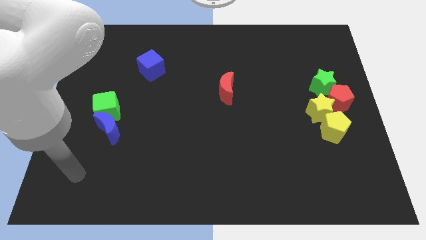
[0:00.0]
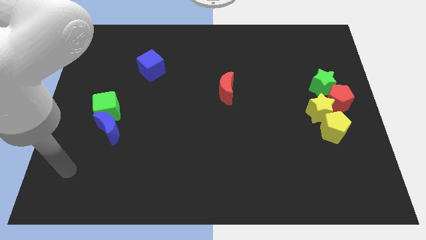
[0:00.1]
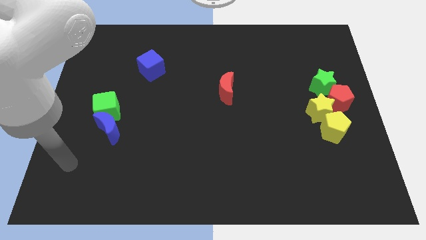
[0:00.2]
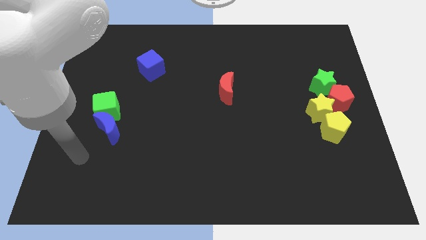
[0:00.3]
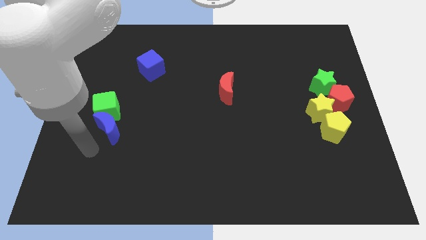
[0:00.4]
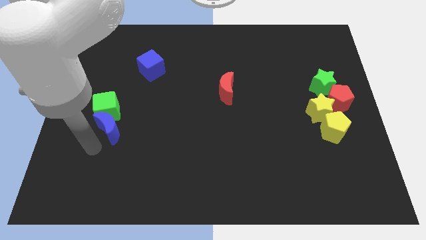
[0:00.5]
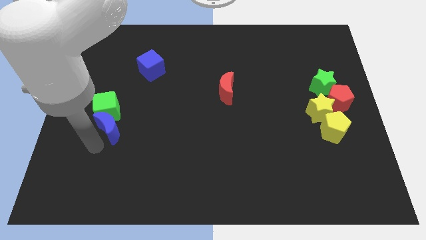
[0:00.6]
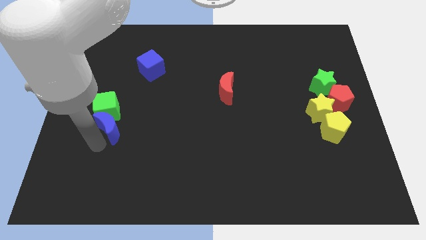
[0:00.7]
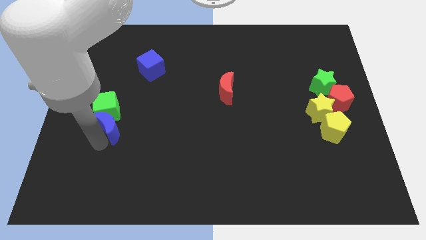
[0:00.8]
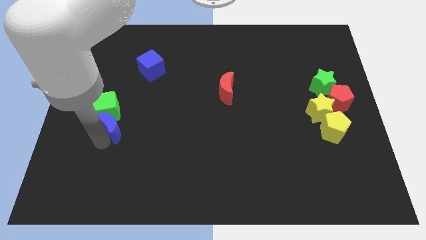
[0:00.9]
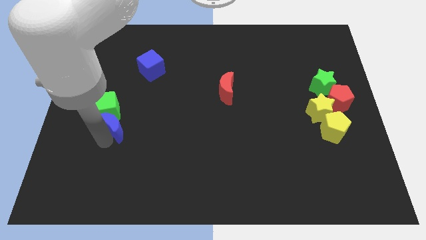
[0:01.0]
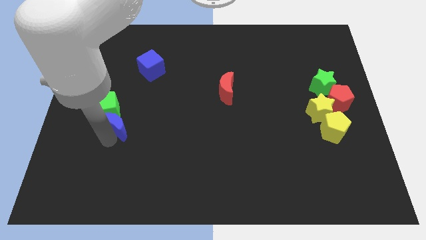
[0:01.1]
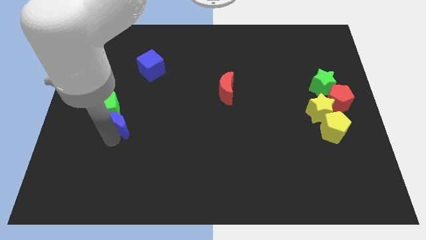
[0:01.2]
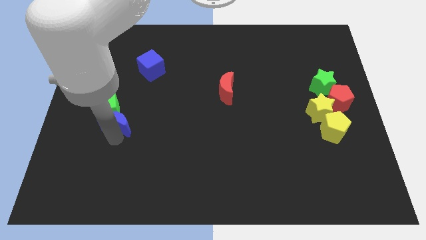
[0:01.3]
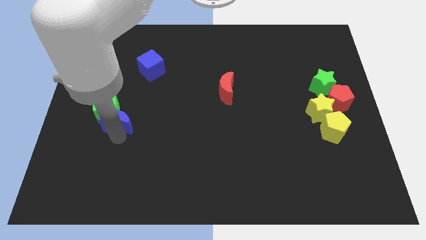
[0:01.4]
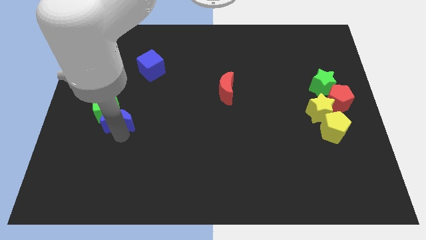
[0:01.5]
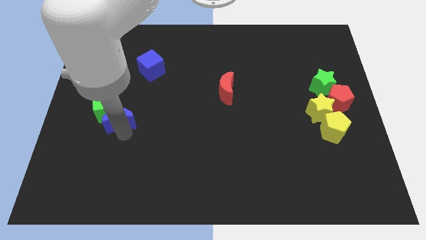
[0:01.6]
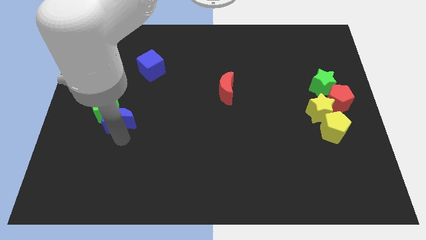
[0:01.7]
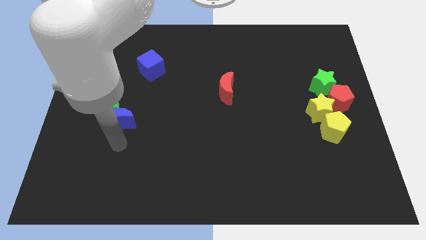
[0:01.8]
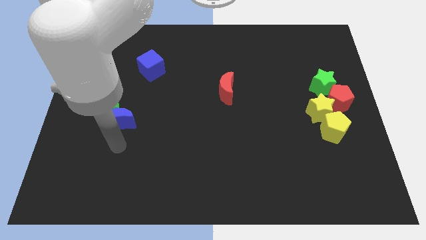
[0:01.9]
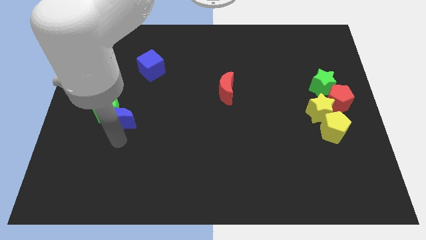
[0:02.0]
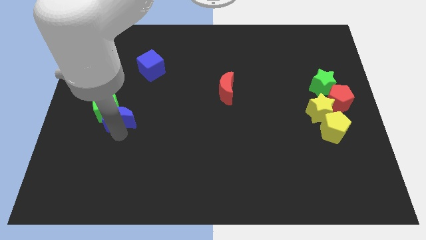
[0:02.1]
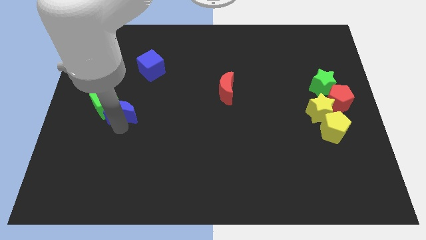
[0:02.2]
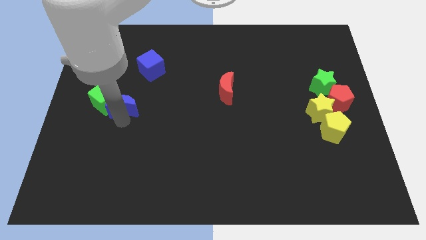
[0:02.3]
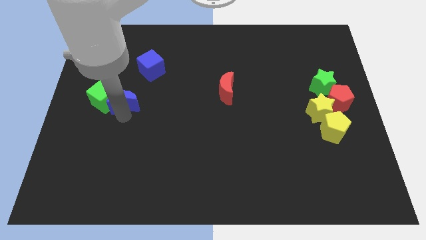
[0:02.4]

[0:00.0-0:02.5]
slide the blue moon up somewhat

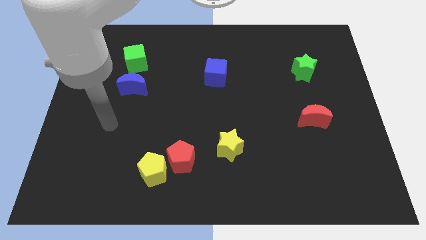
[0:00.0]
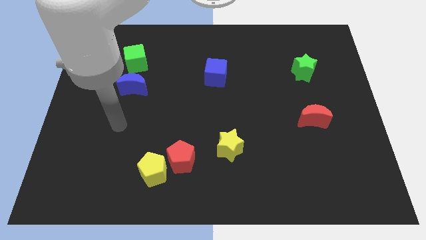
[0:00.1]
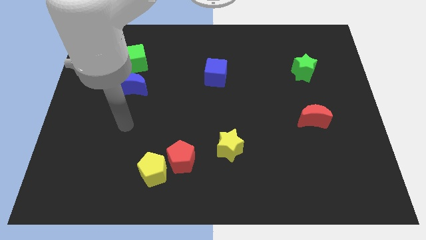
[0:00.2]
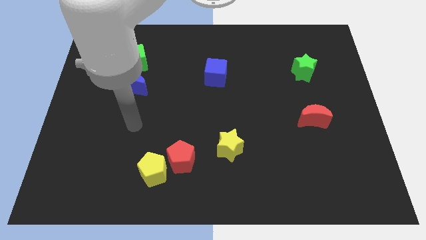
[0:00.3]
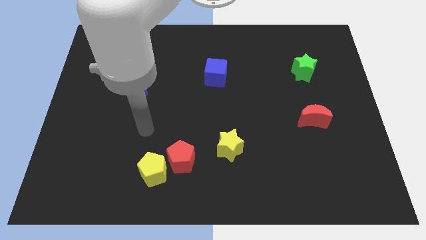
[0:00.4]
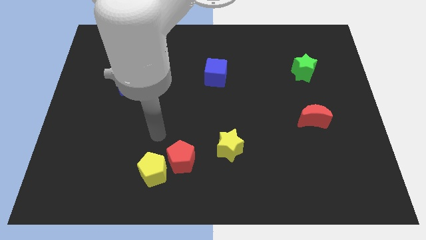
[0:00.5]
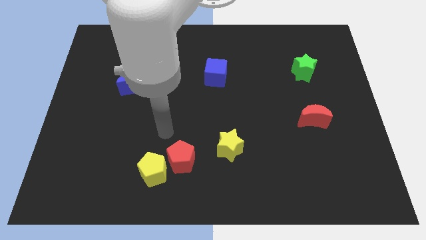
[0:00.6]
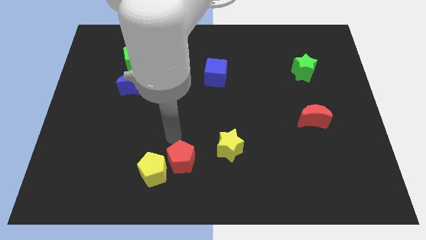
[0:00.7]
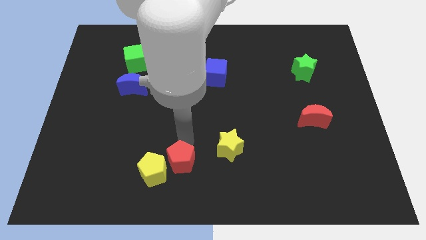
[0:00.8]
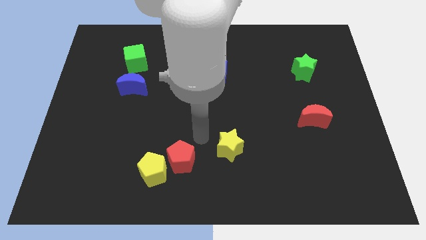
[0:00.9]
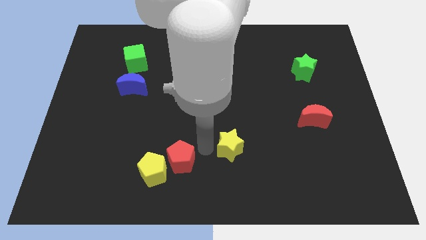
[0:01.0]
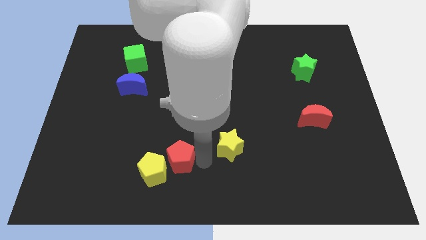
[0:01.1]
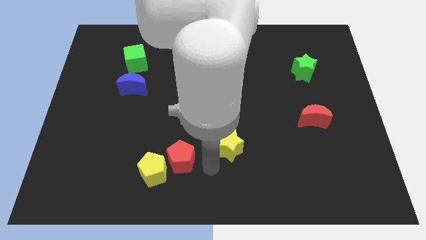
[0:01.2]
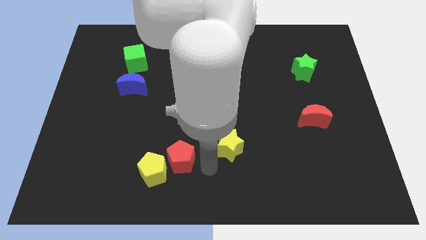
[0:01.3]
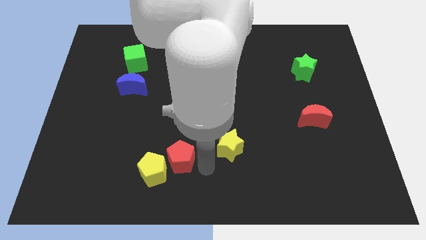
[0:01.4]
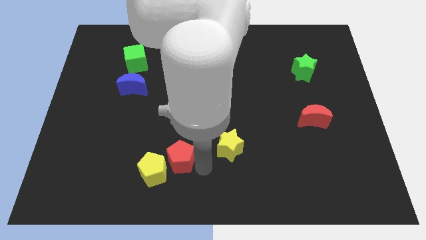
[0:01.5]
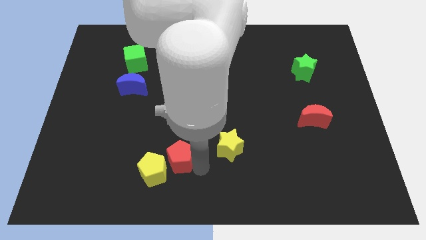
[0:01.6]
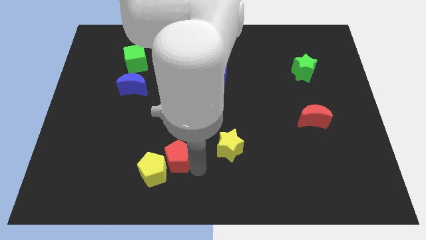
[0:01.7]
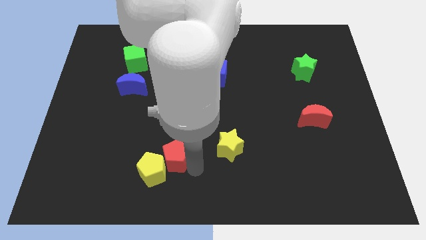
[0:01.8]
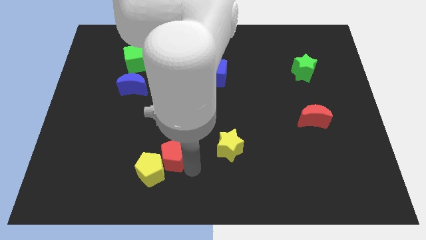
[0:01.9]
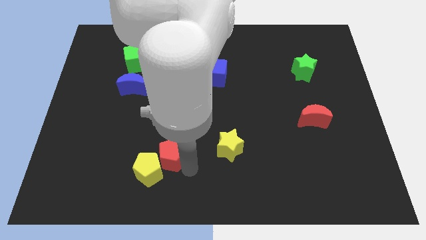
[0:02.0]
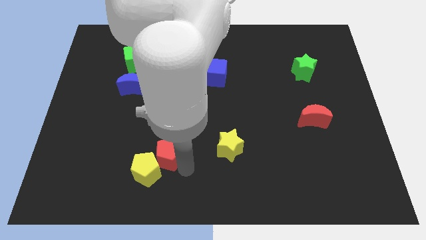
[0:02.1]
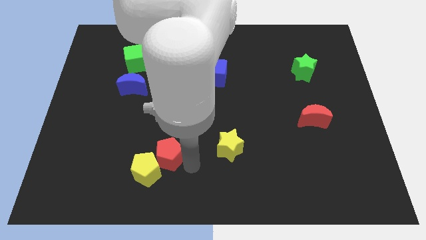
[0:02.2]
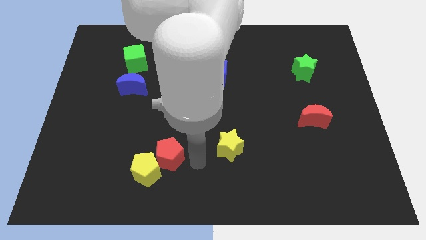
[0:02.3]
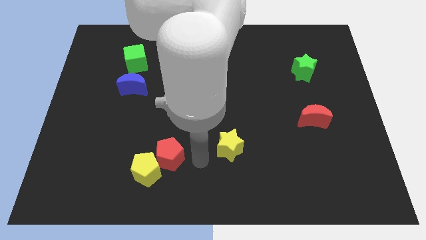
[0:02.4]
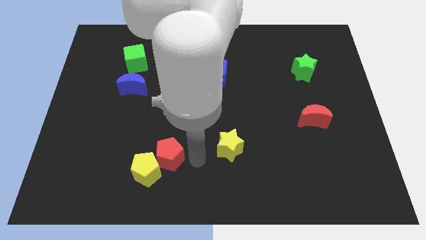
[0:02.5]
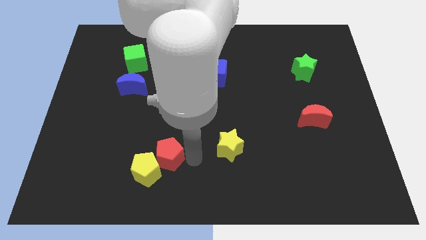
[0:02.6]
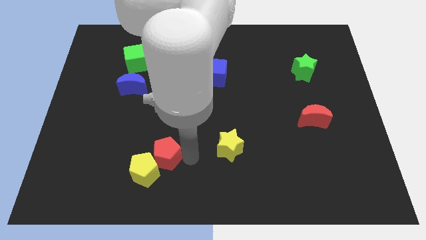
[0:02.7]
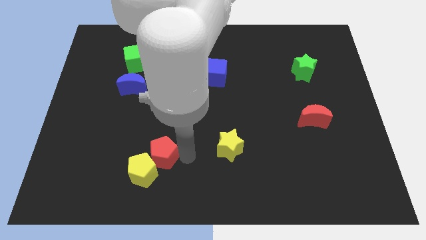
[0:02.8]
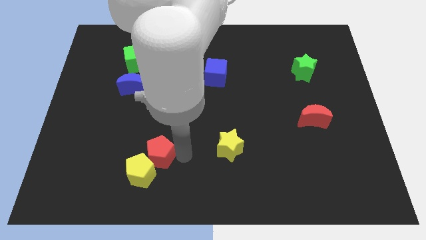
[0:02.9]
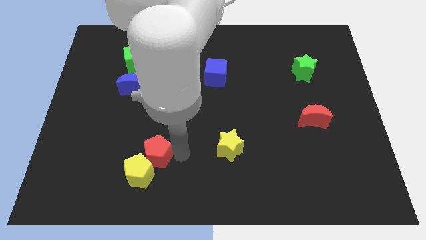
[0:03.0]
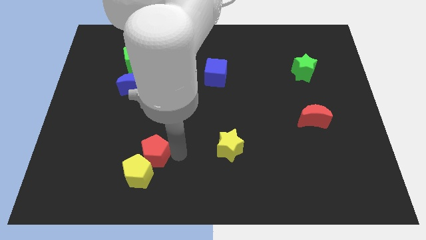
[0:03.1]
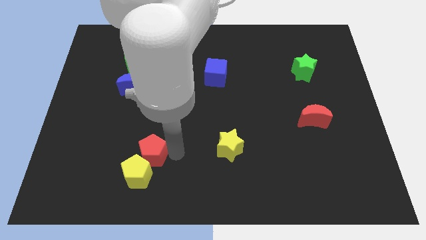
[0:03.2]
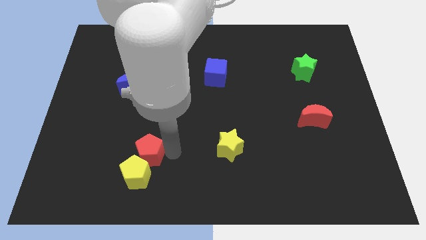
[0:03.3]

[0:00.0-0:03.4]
slightly move the red pentagon left

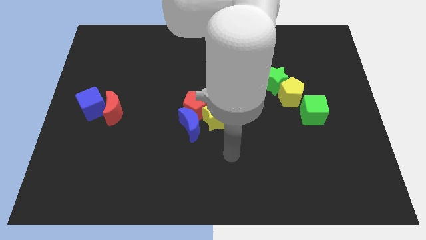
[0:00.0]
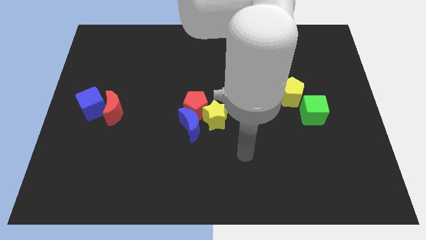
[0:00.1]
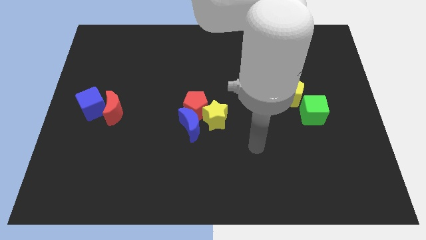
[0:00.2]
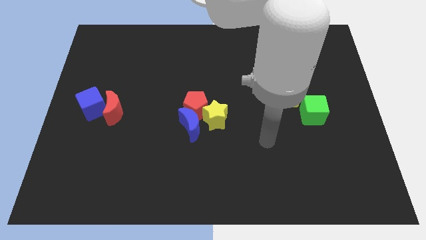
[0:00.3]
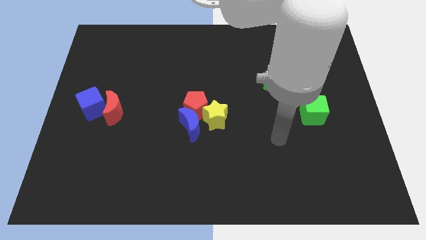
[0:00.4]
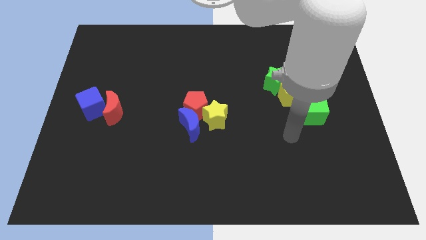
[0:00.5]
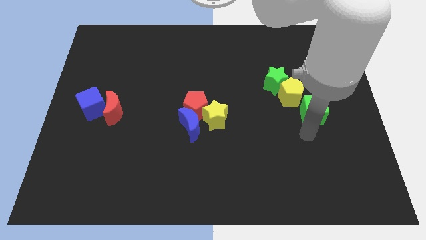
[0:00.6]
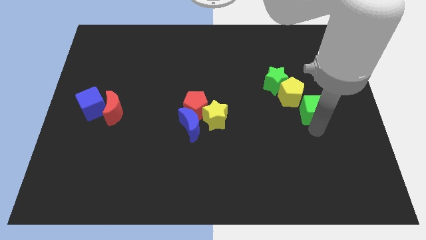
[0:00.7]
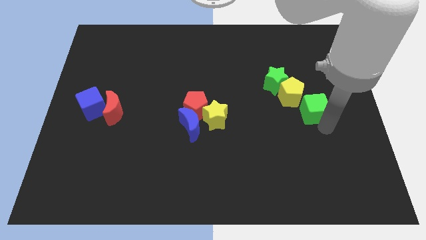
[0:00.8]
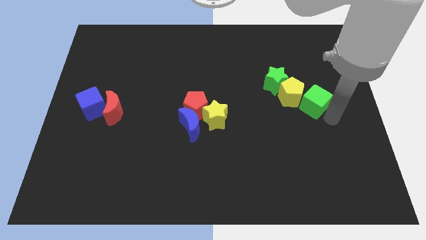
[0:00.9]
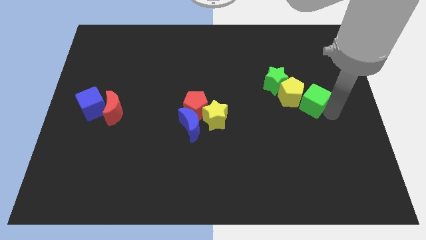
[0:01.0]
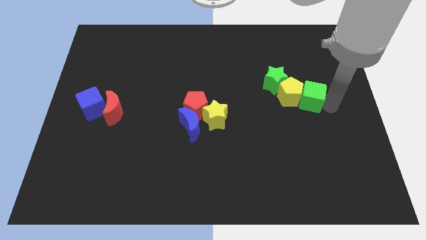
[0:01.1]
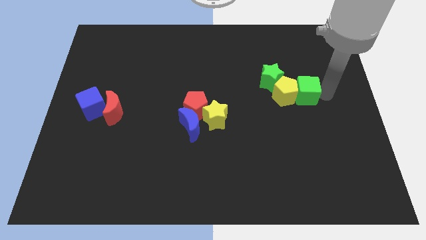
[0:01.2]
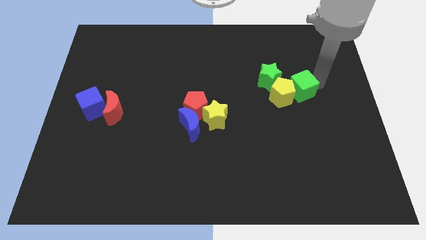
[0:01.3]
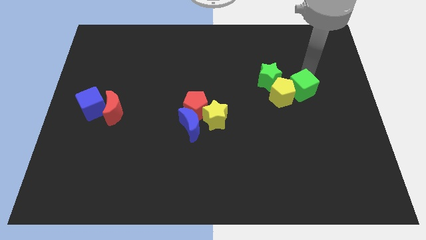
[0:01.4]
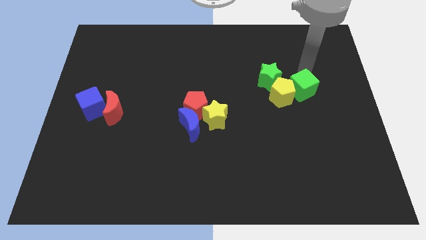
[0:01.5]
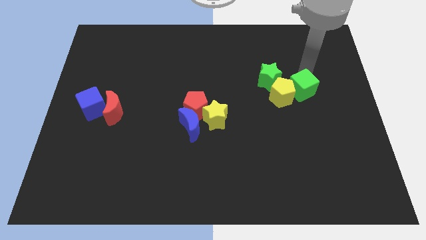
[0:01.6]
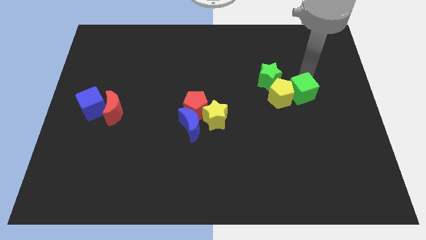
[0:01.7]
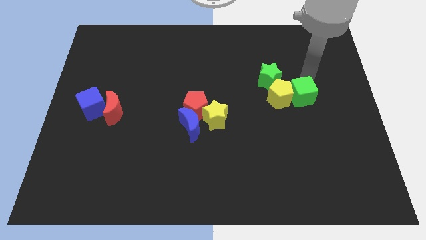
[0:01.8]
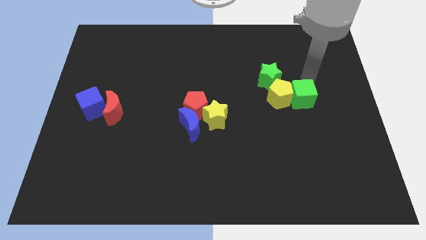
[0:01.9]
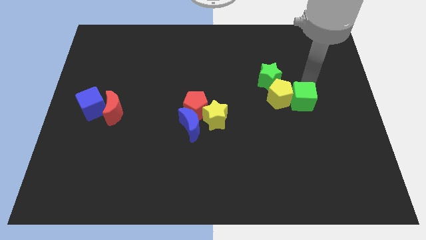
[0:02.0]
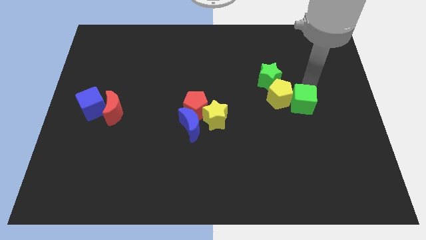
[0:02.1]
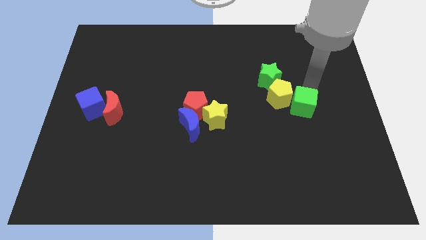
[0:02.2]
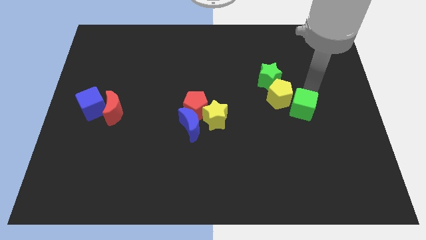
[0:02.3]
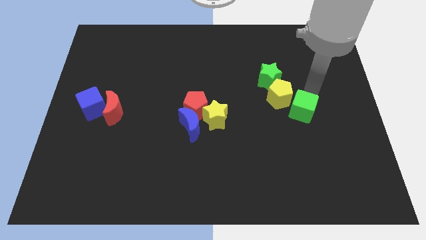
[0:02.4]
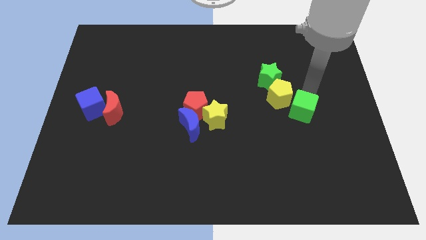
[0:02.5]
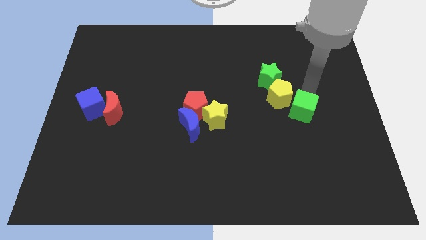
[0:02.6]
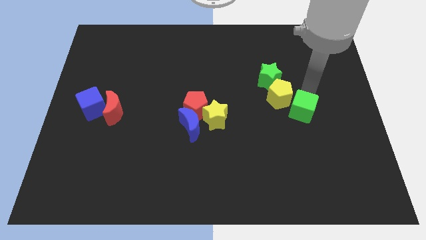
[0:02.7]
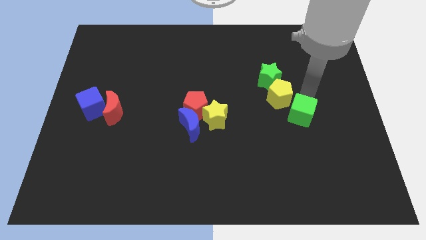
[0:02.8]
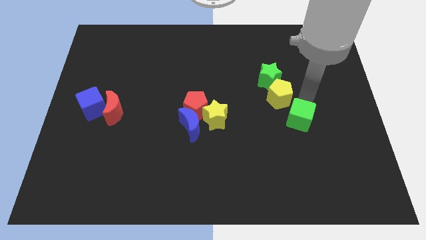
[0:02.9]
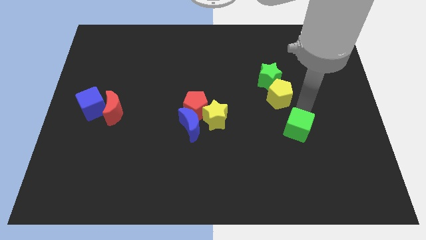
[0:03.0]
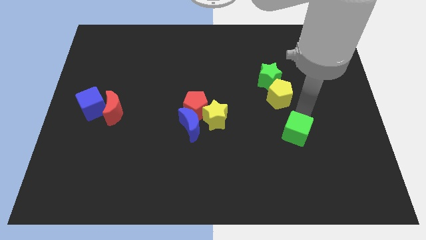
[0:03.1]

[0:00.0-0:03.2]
move the green cube a bit downwards and then to the left
